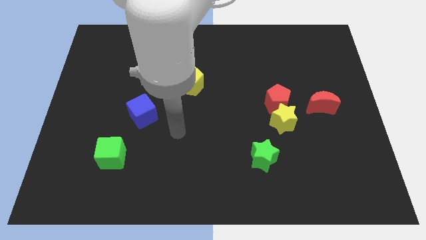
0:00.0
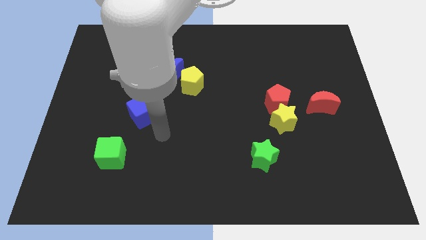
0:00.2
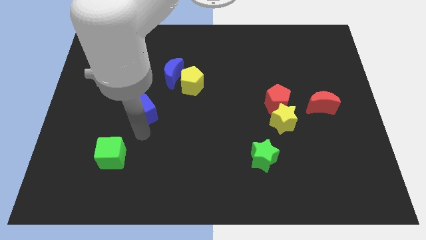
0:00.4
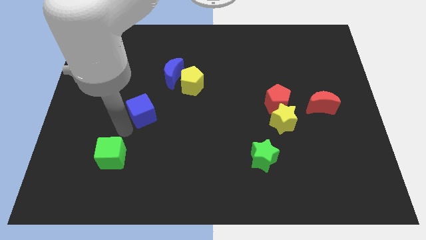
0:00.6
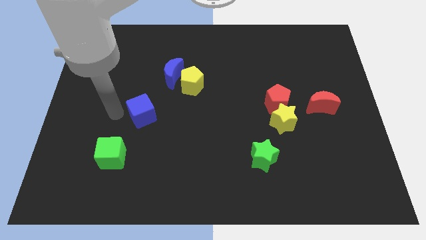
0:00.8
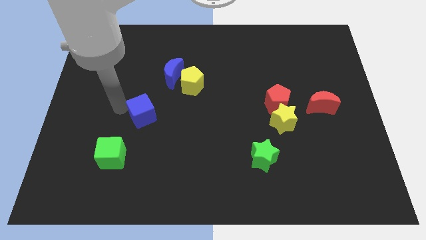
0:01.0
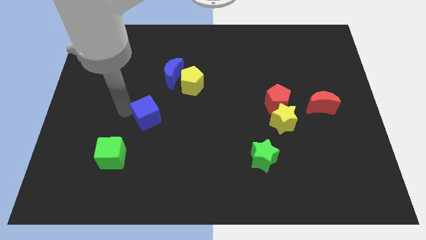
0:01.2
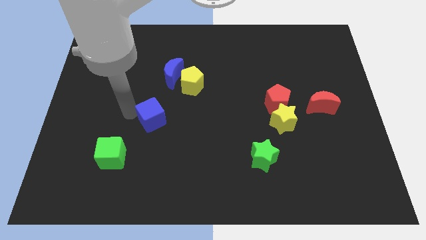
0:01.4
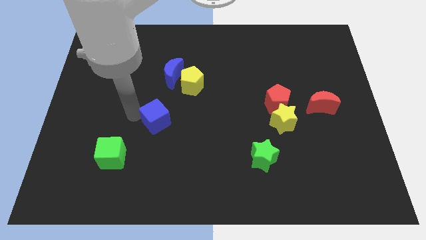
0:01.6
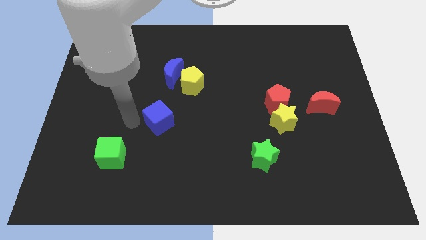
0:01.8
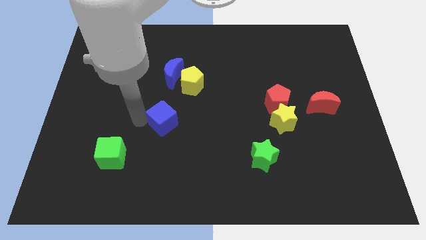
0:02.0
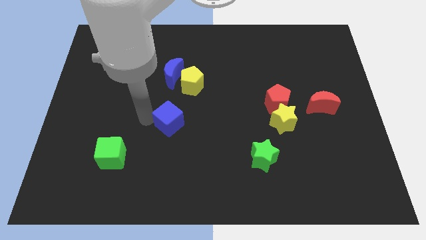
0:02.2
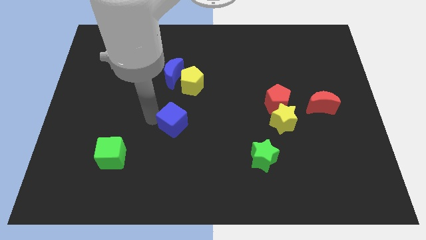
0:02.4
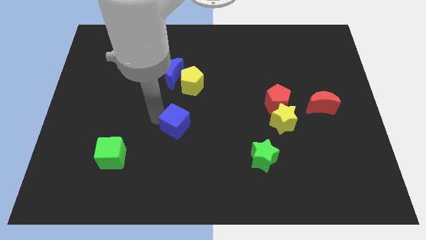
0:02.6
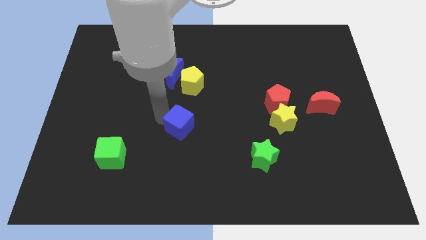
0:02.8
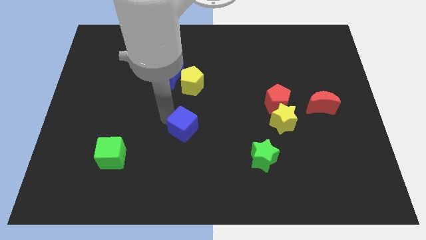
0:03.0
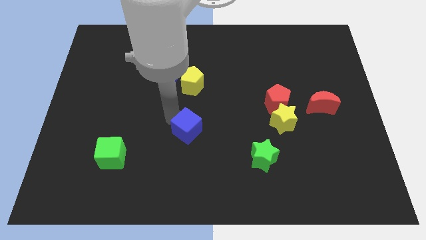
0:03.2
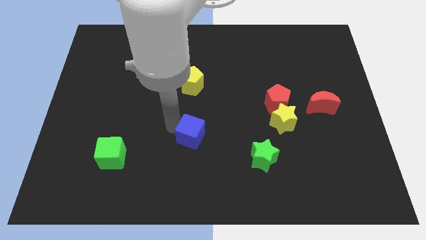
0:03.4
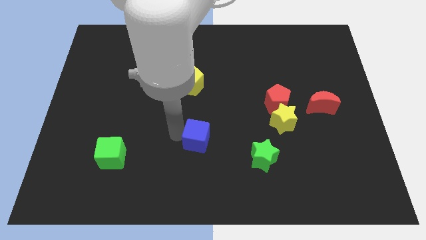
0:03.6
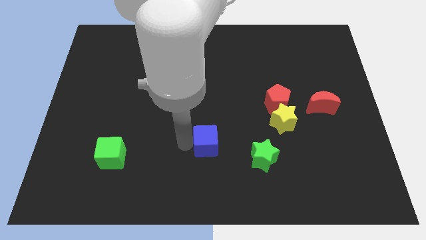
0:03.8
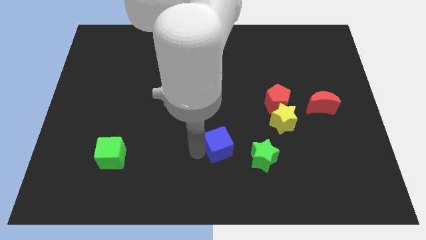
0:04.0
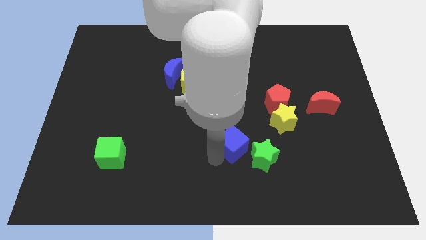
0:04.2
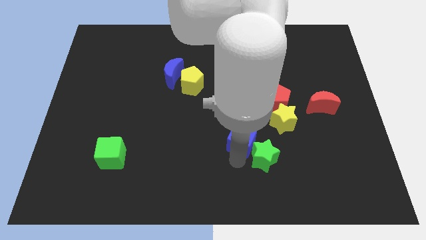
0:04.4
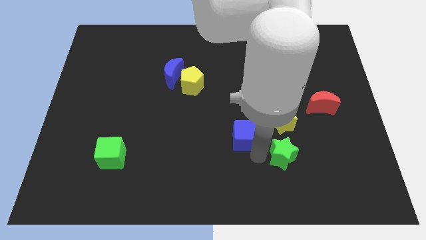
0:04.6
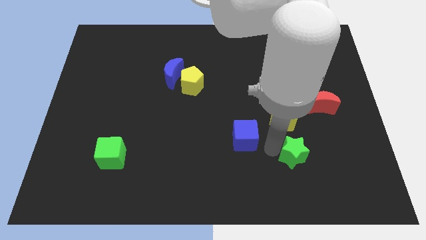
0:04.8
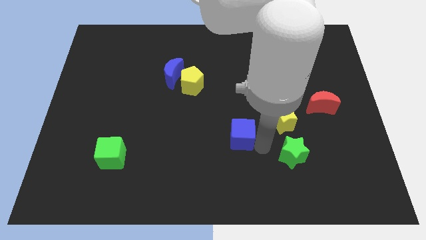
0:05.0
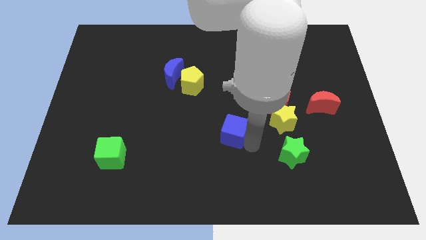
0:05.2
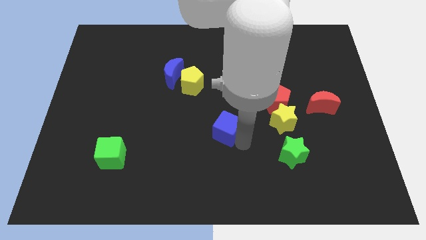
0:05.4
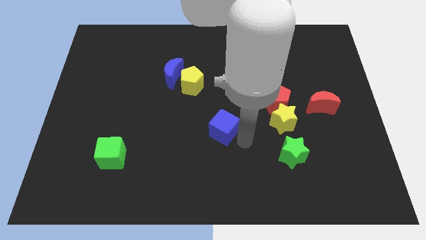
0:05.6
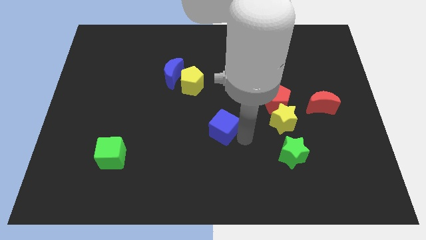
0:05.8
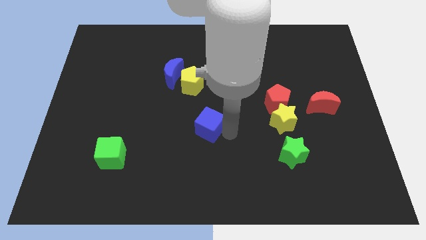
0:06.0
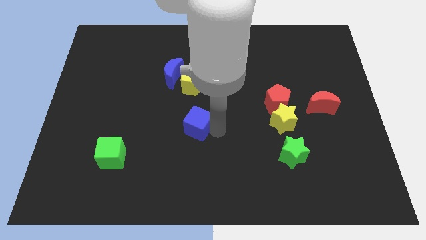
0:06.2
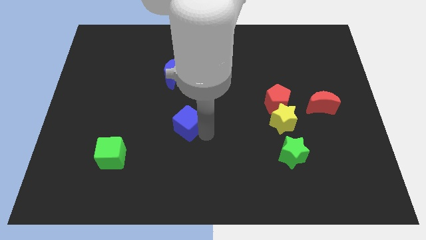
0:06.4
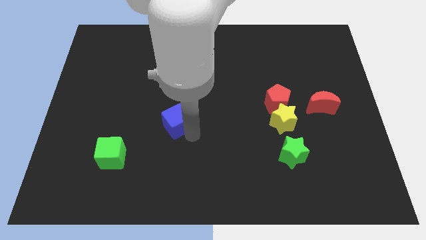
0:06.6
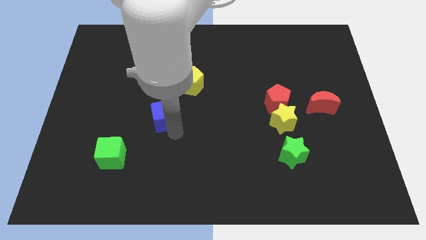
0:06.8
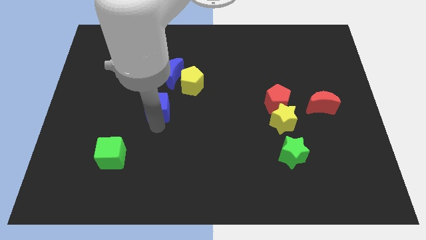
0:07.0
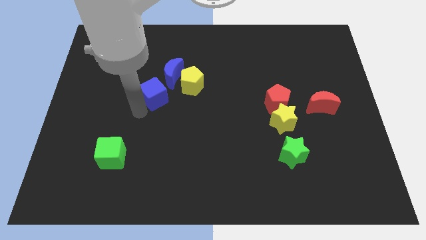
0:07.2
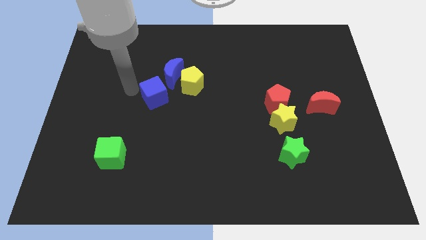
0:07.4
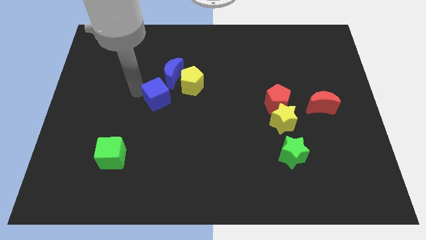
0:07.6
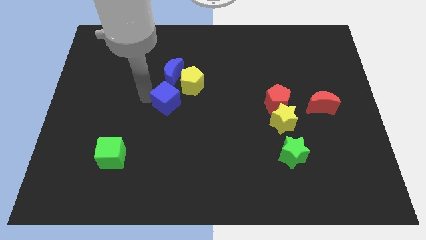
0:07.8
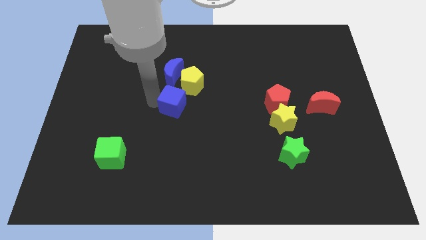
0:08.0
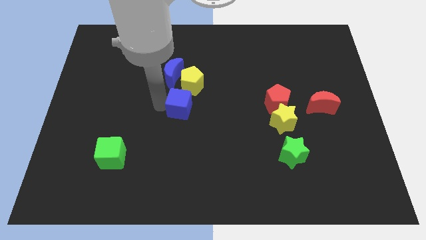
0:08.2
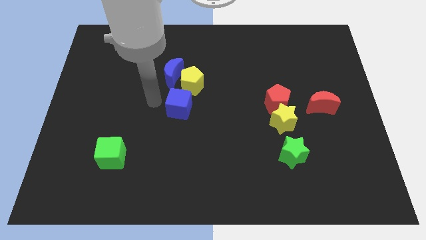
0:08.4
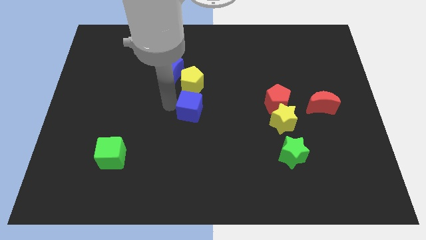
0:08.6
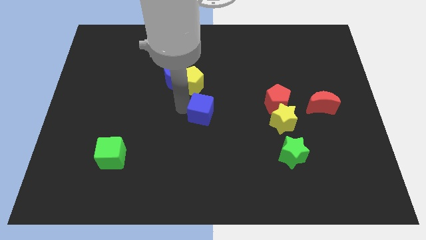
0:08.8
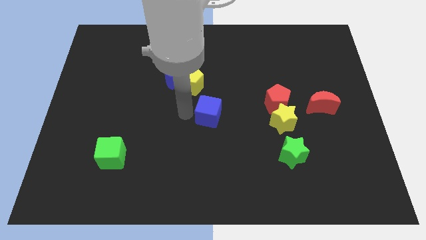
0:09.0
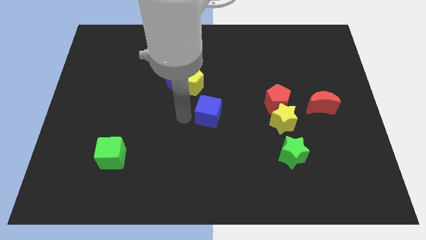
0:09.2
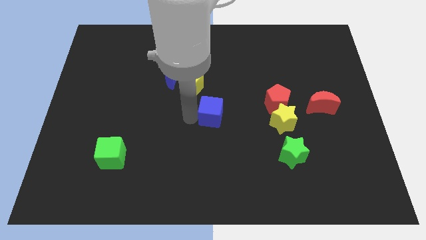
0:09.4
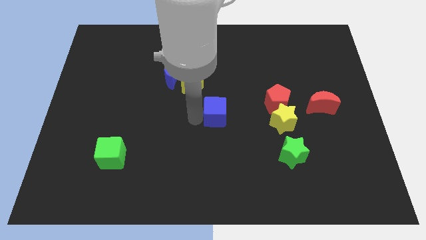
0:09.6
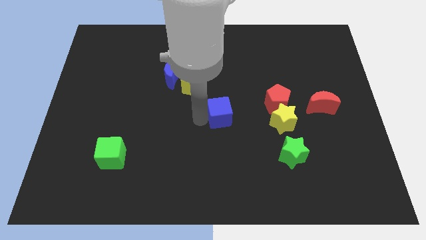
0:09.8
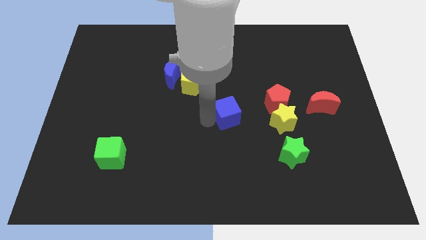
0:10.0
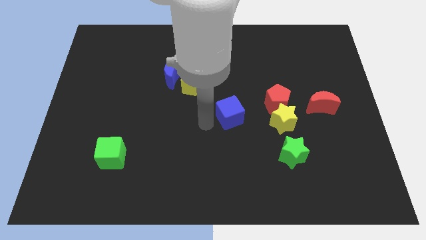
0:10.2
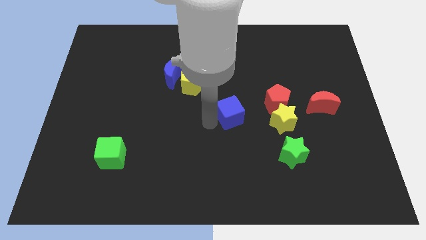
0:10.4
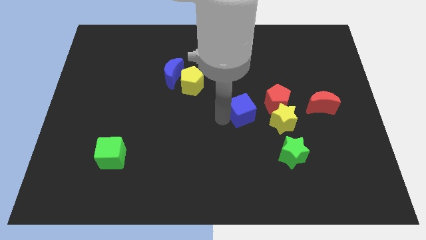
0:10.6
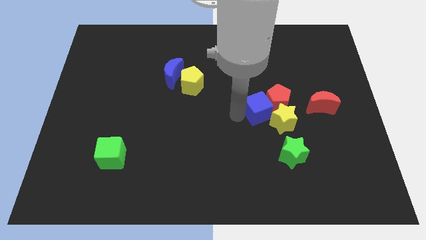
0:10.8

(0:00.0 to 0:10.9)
slide the blue cube to the red pentagon
